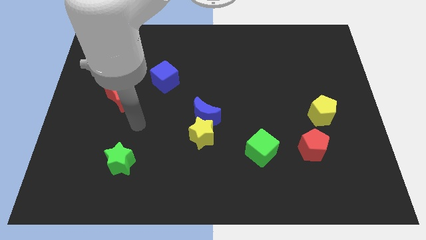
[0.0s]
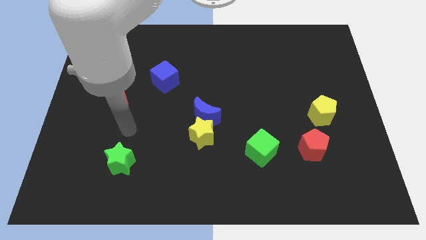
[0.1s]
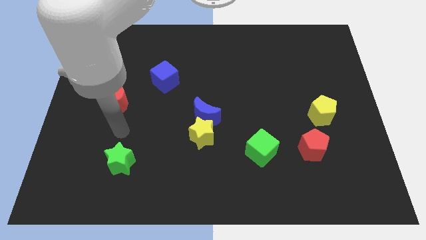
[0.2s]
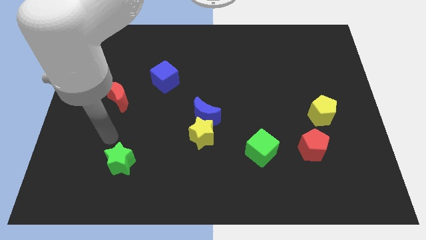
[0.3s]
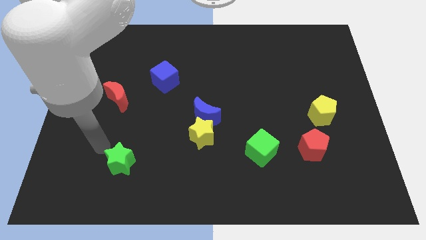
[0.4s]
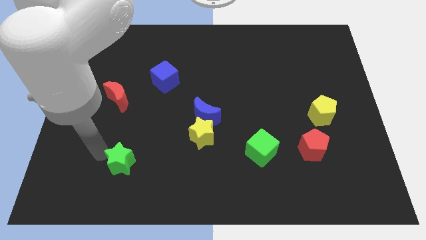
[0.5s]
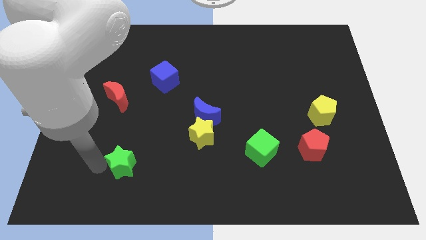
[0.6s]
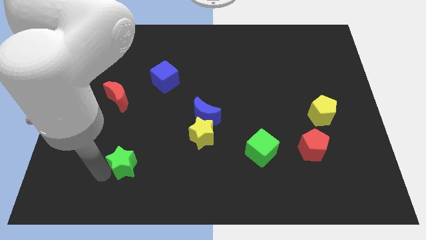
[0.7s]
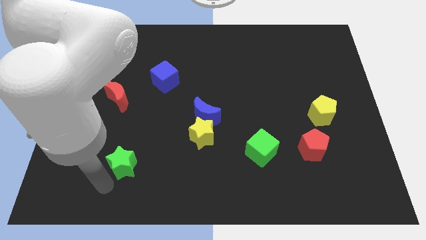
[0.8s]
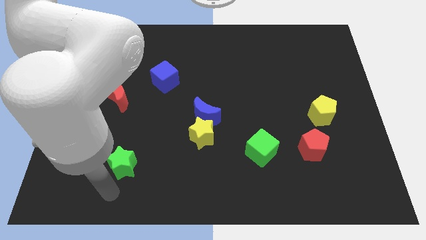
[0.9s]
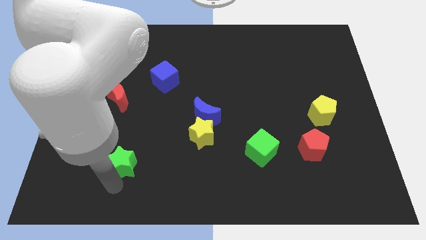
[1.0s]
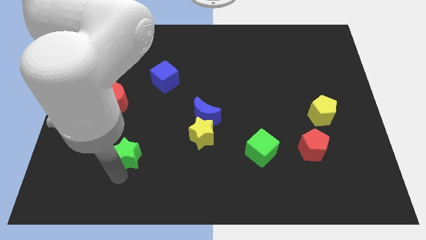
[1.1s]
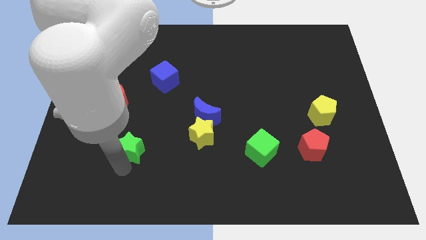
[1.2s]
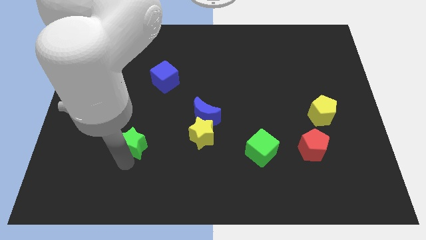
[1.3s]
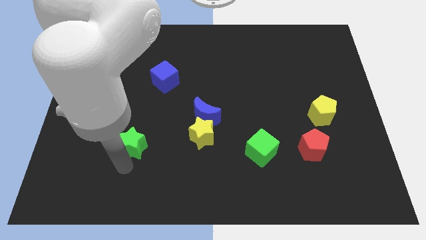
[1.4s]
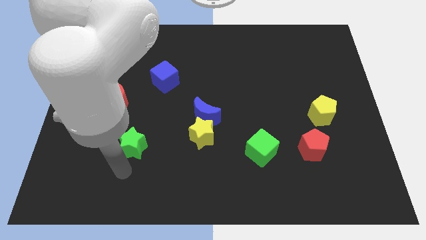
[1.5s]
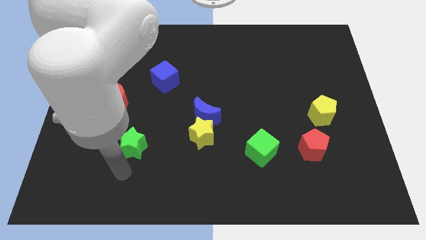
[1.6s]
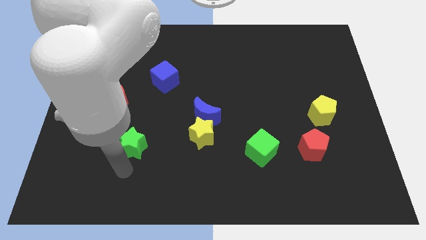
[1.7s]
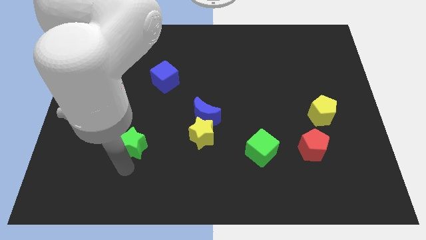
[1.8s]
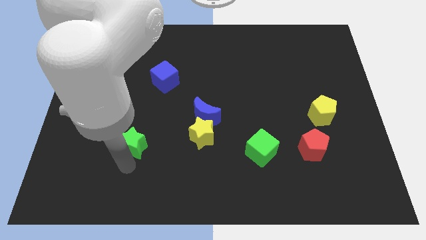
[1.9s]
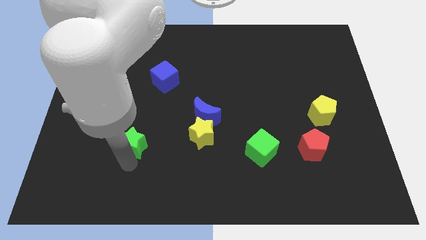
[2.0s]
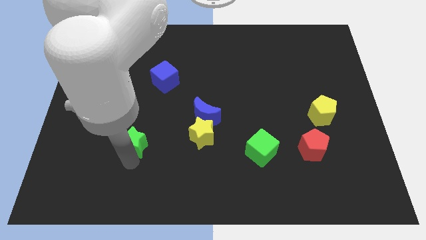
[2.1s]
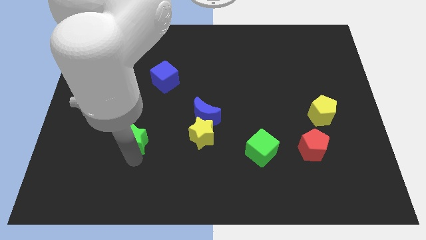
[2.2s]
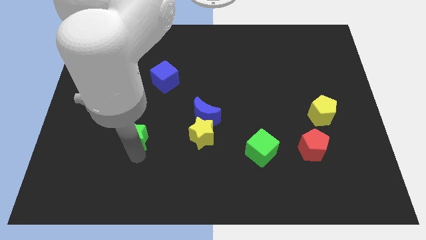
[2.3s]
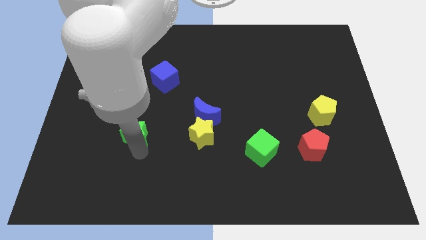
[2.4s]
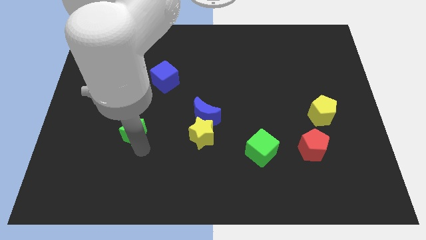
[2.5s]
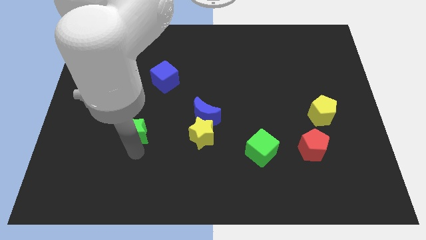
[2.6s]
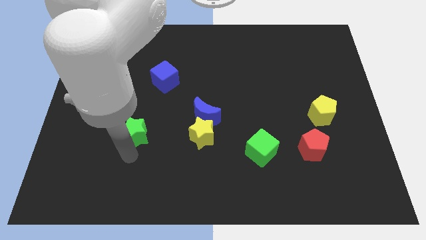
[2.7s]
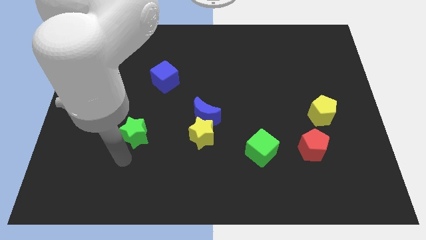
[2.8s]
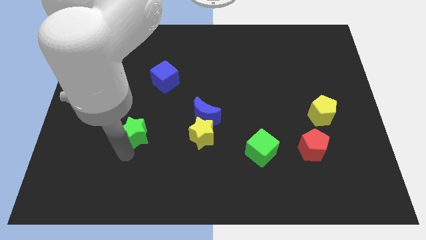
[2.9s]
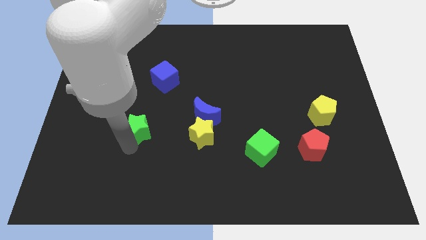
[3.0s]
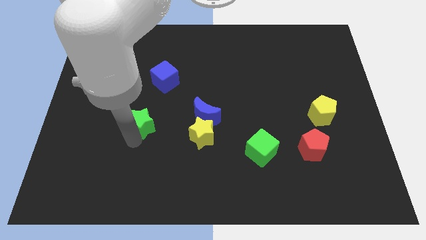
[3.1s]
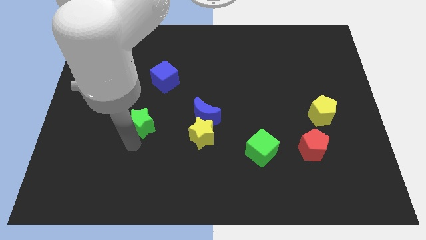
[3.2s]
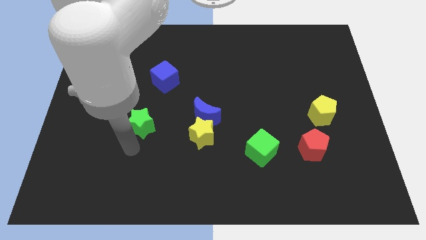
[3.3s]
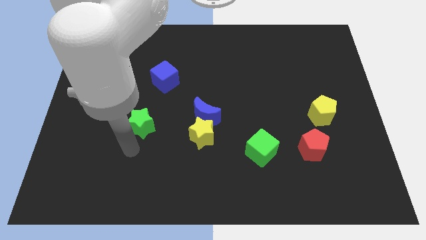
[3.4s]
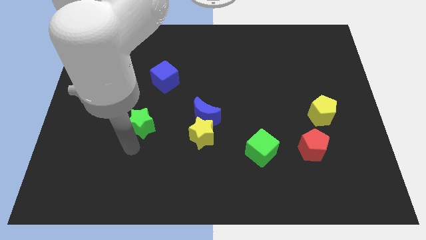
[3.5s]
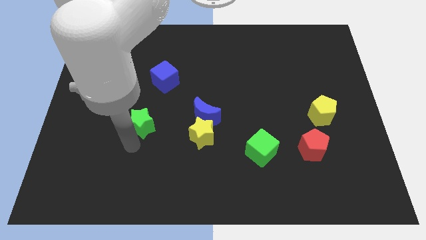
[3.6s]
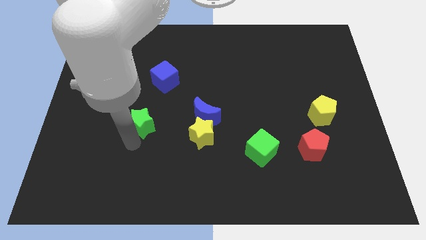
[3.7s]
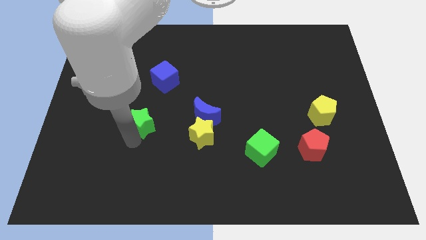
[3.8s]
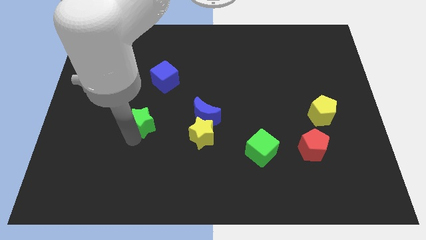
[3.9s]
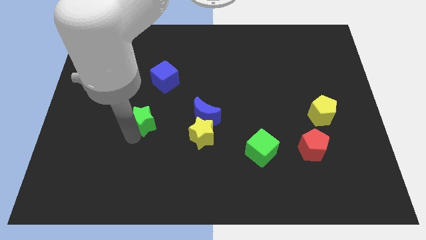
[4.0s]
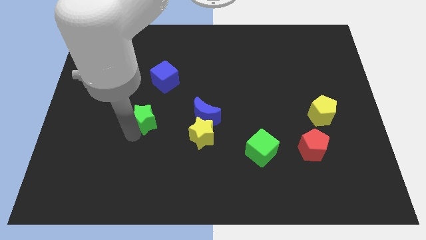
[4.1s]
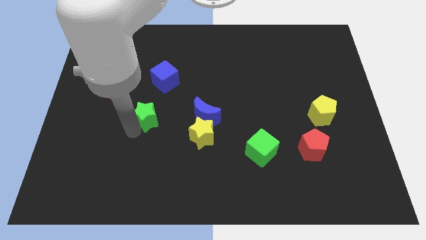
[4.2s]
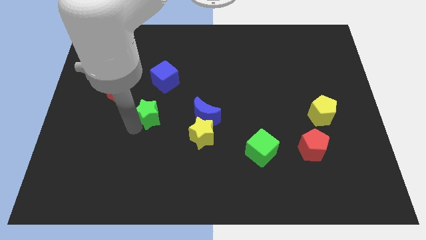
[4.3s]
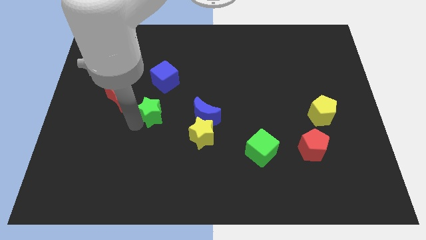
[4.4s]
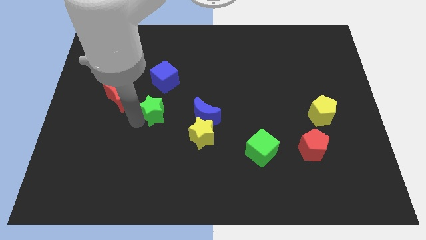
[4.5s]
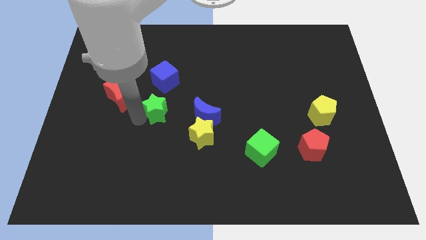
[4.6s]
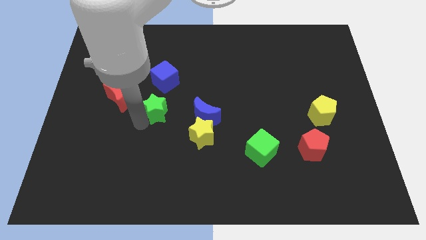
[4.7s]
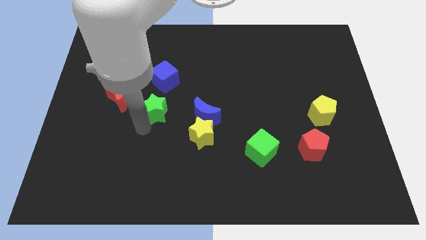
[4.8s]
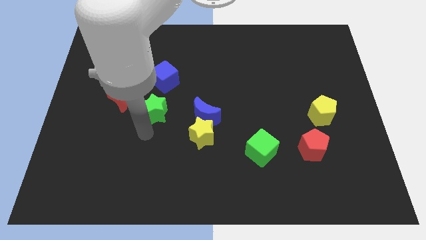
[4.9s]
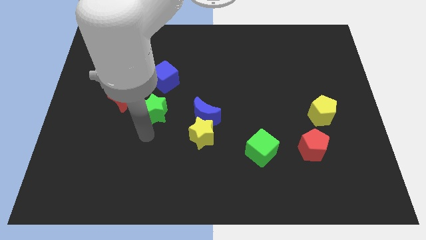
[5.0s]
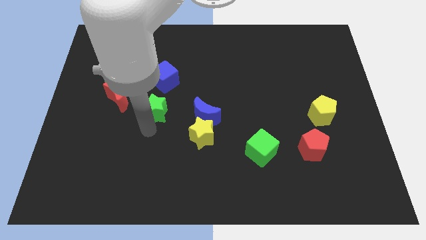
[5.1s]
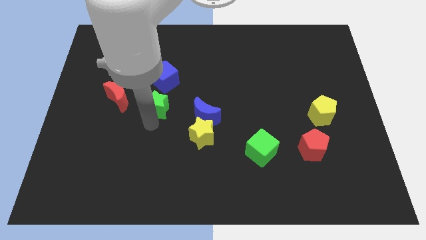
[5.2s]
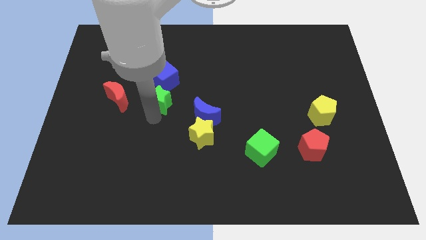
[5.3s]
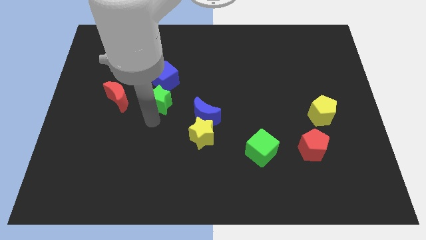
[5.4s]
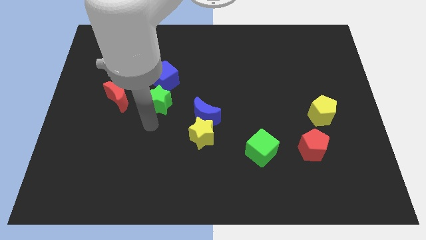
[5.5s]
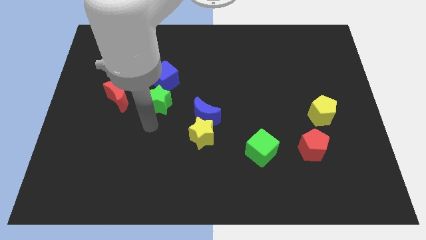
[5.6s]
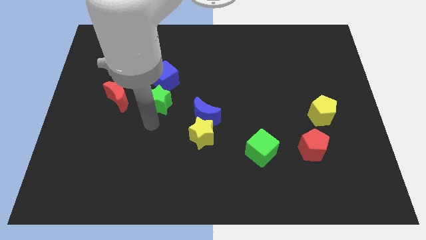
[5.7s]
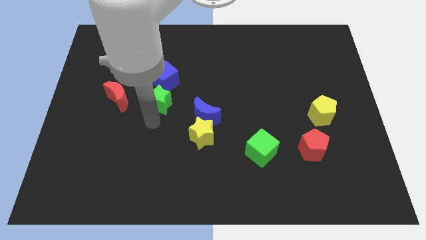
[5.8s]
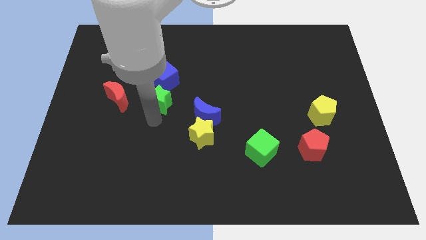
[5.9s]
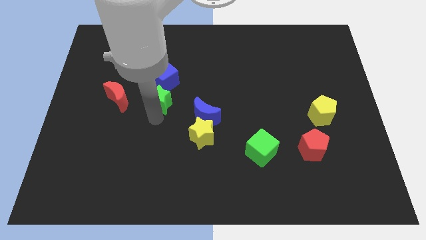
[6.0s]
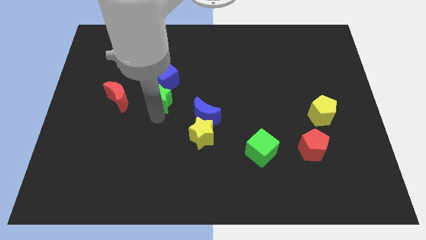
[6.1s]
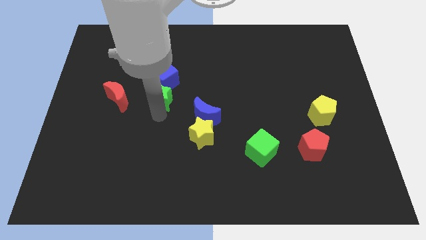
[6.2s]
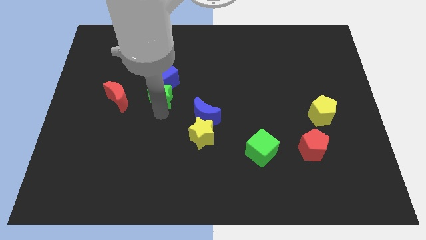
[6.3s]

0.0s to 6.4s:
move the green star close to the blue cube

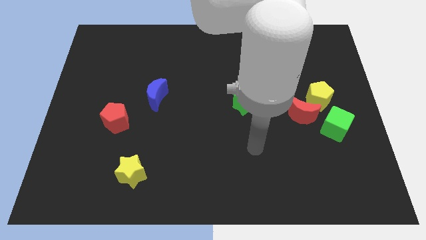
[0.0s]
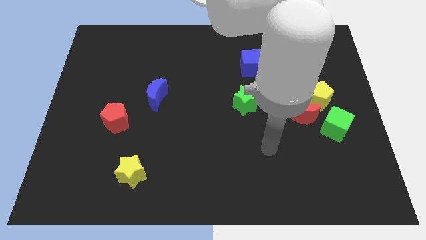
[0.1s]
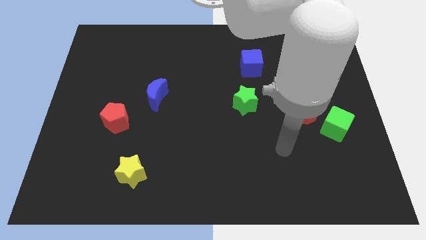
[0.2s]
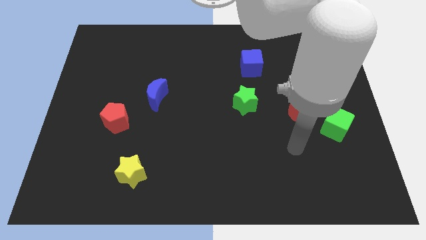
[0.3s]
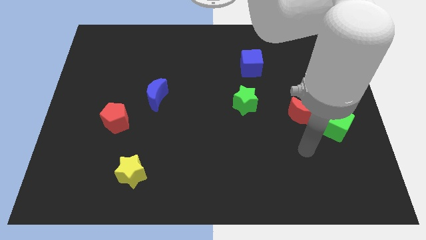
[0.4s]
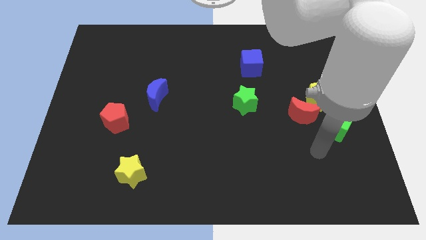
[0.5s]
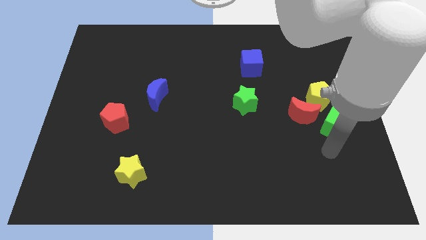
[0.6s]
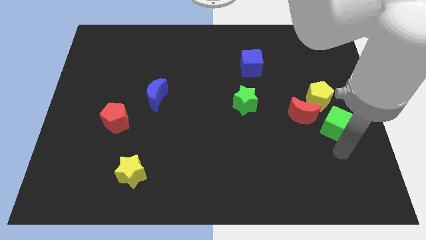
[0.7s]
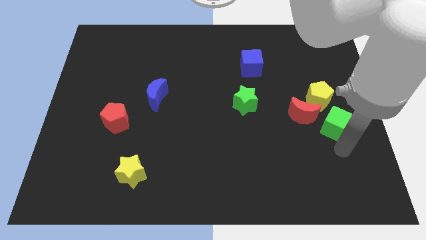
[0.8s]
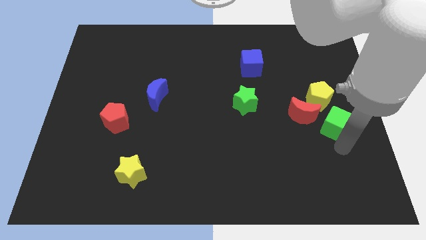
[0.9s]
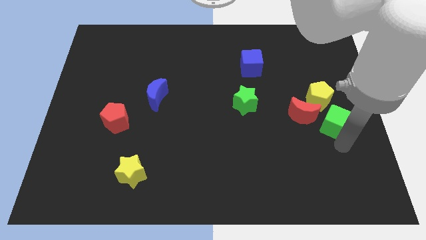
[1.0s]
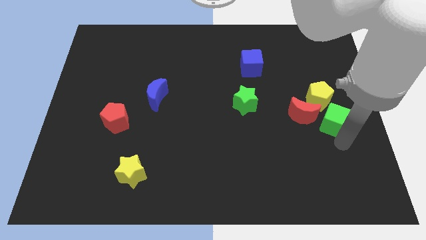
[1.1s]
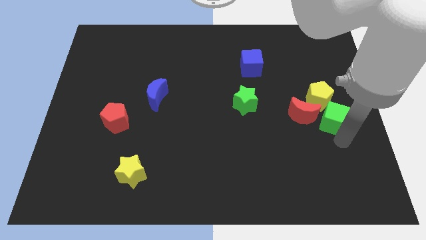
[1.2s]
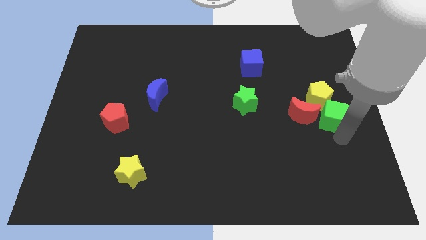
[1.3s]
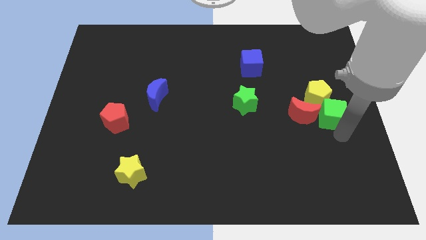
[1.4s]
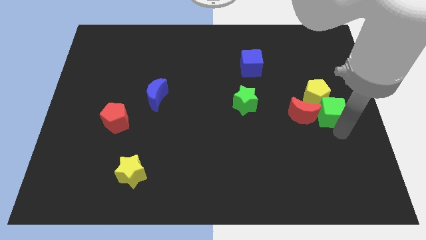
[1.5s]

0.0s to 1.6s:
push the green cube towards the yellow pentagon

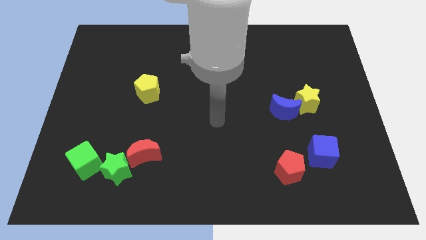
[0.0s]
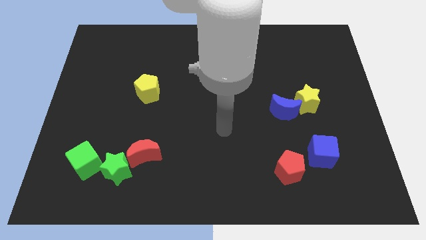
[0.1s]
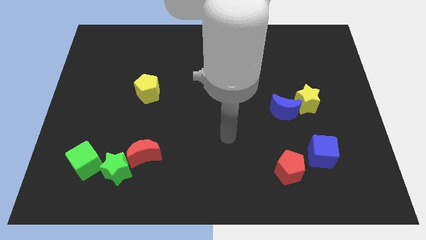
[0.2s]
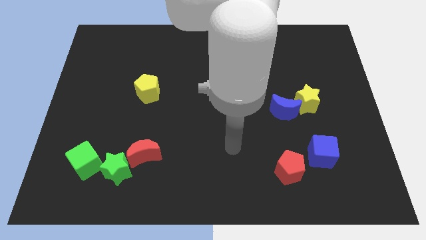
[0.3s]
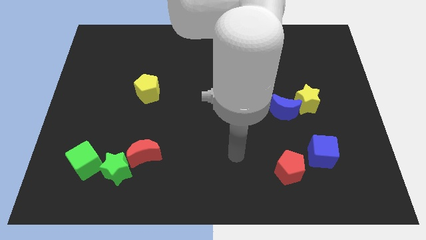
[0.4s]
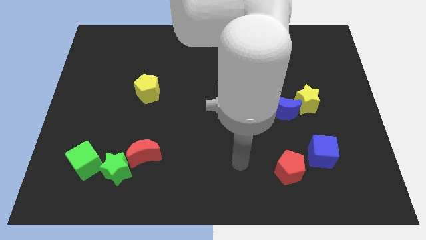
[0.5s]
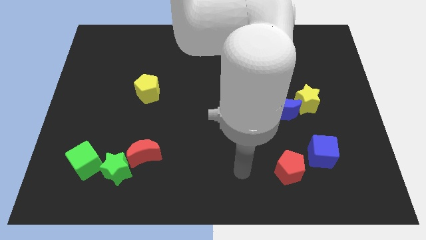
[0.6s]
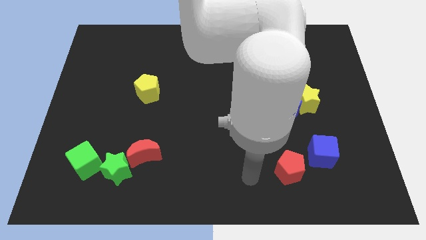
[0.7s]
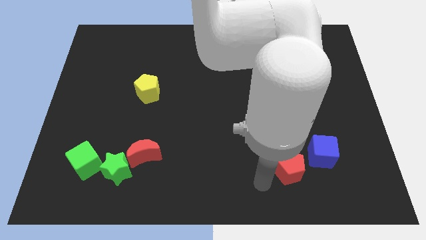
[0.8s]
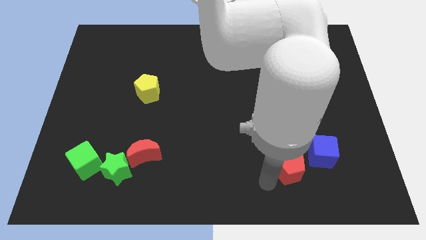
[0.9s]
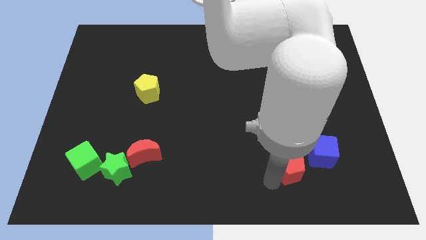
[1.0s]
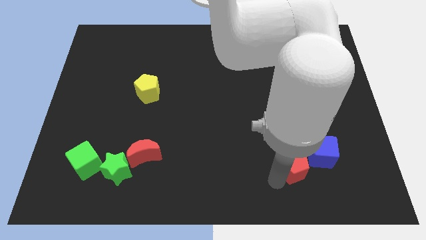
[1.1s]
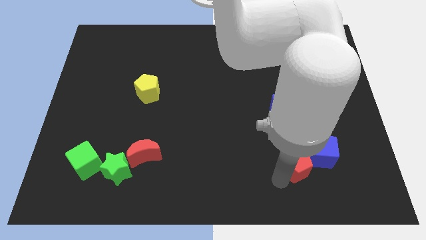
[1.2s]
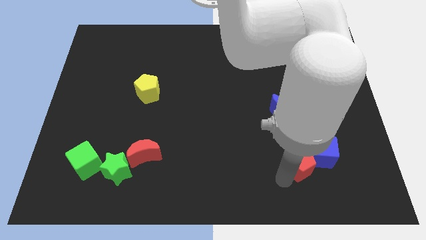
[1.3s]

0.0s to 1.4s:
move the red pentagon to the blue cube
